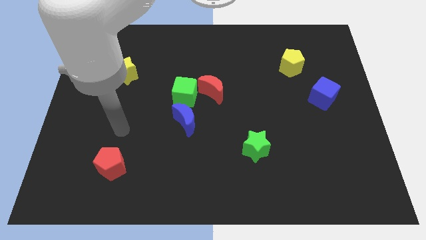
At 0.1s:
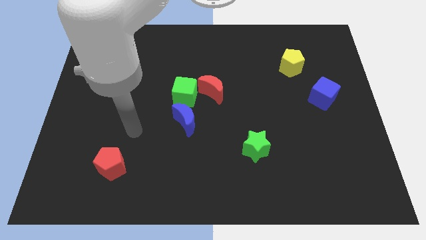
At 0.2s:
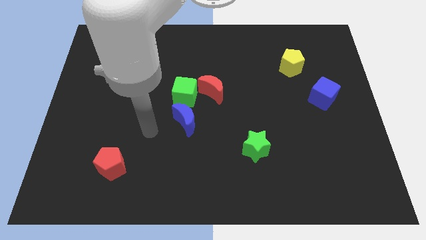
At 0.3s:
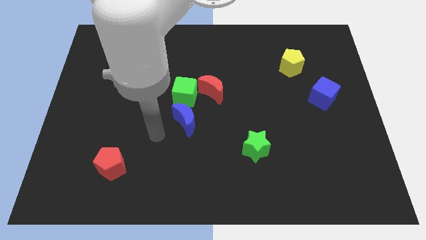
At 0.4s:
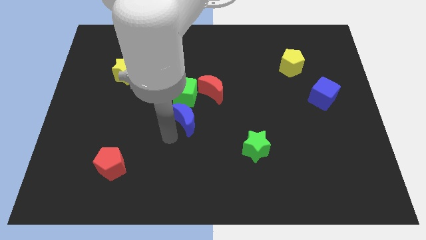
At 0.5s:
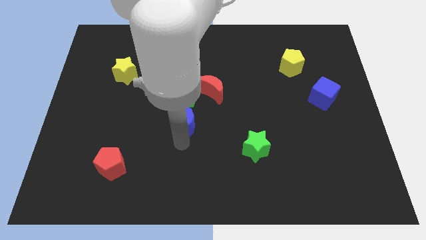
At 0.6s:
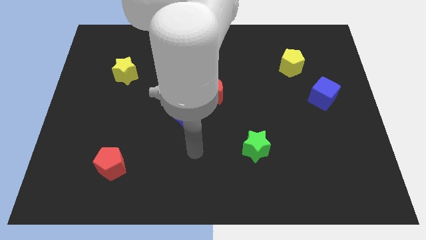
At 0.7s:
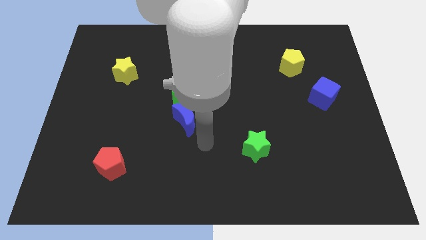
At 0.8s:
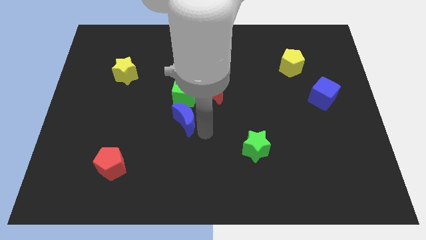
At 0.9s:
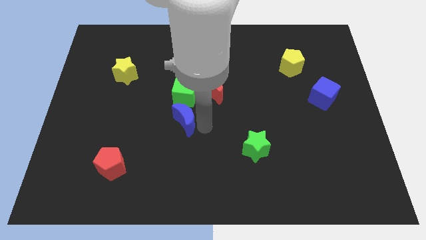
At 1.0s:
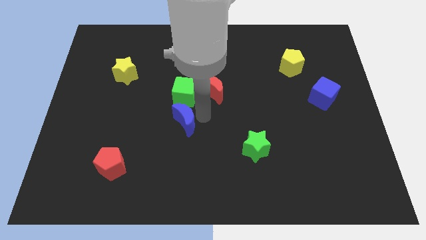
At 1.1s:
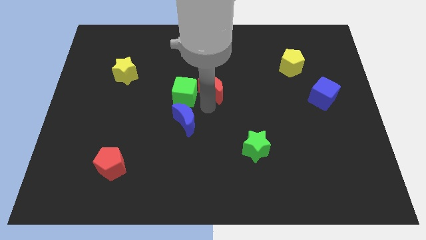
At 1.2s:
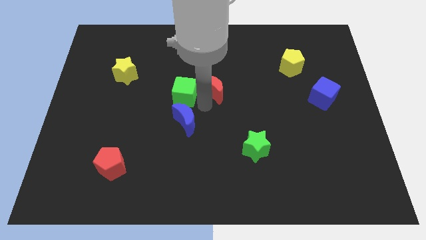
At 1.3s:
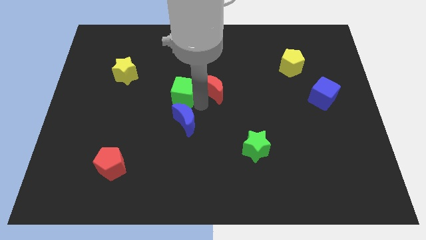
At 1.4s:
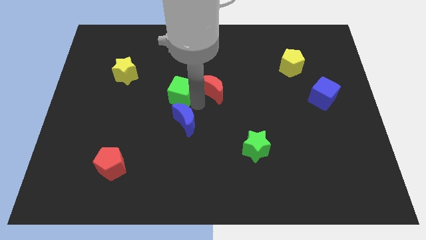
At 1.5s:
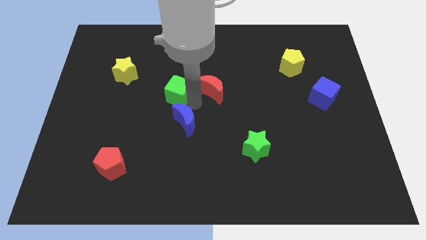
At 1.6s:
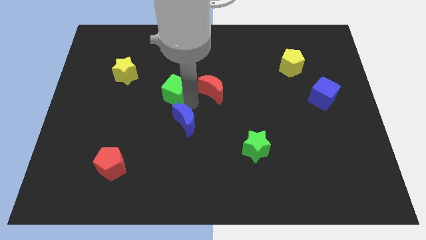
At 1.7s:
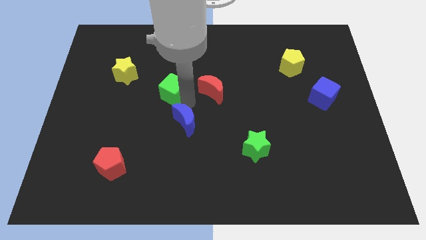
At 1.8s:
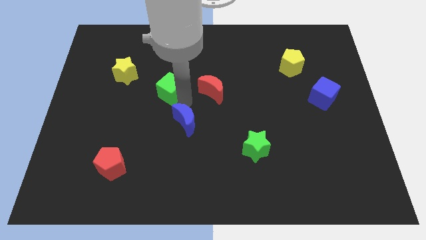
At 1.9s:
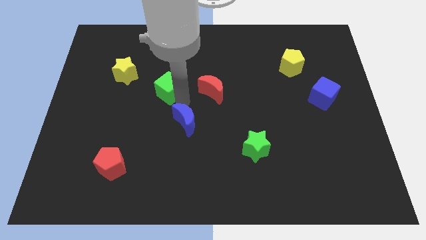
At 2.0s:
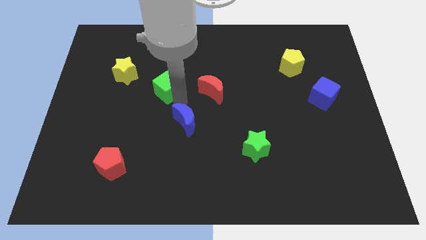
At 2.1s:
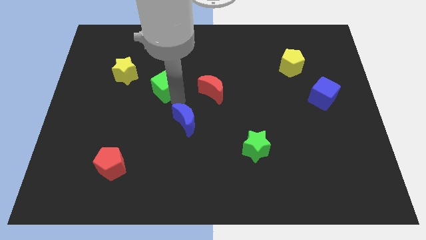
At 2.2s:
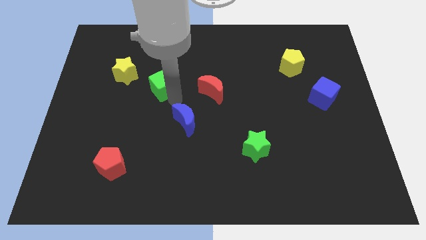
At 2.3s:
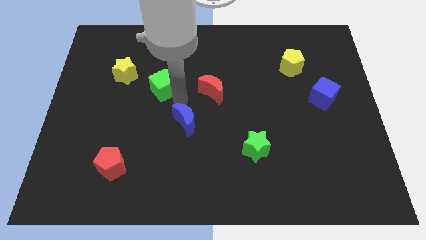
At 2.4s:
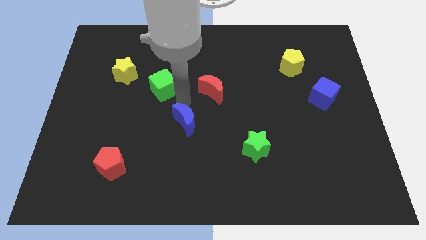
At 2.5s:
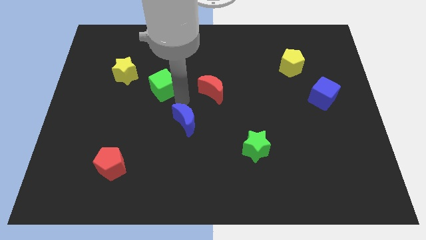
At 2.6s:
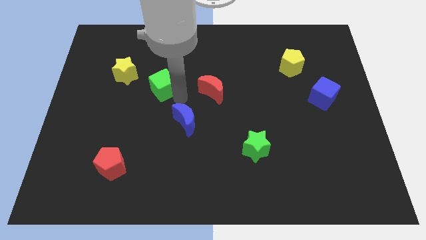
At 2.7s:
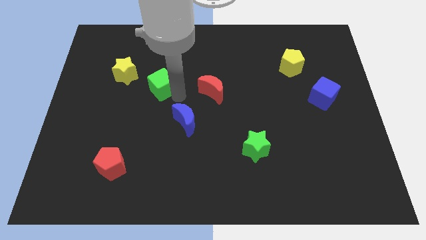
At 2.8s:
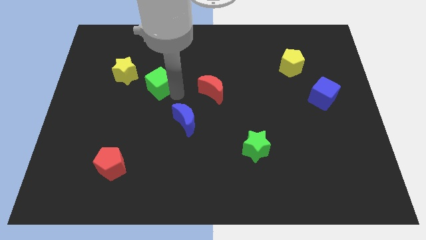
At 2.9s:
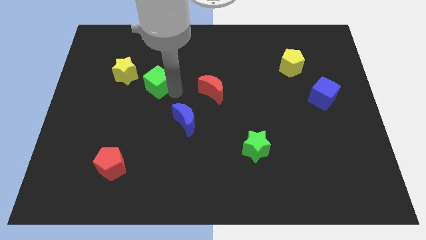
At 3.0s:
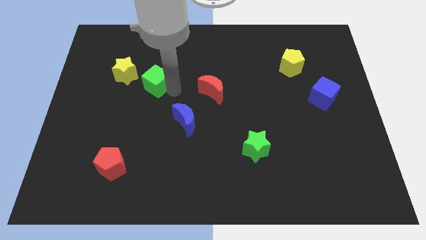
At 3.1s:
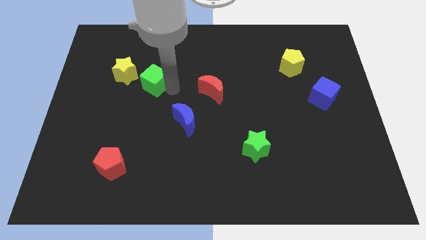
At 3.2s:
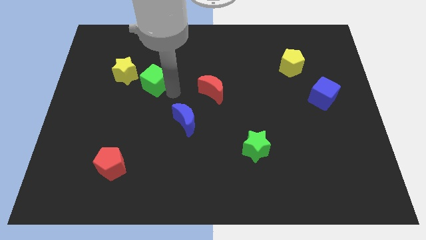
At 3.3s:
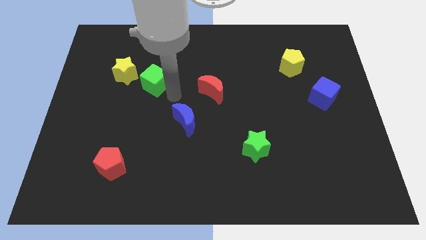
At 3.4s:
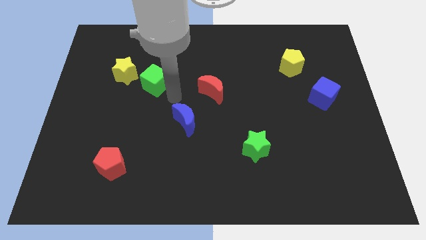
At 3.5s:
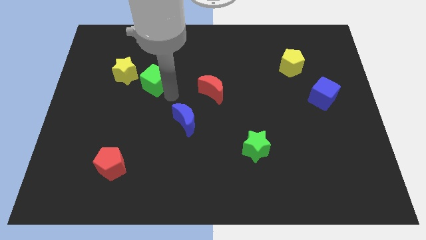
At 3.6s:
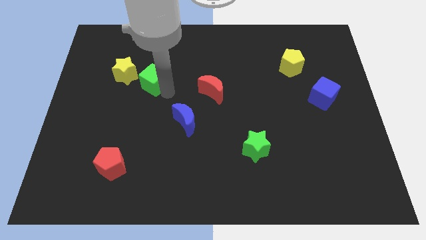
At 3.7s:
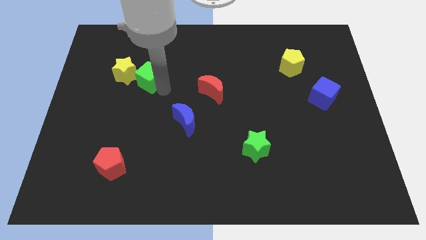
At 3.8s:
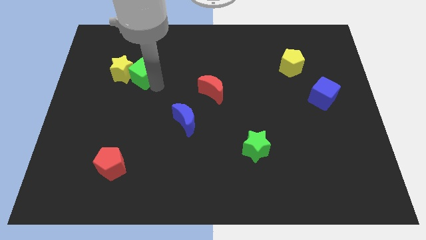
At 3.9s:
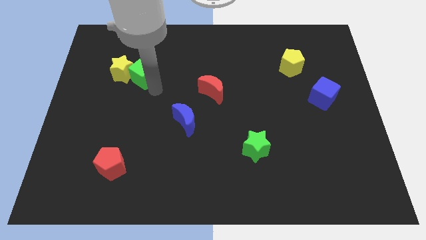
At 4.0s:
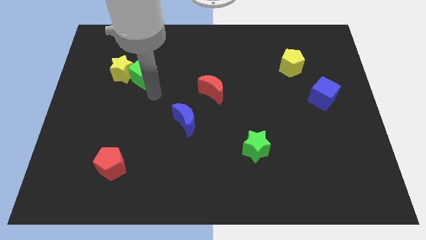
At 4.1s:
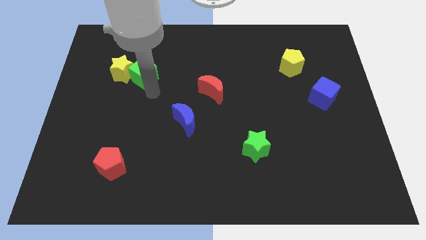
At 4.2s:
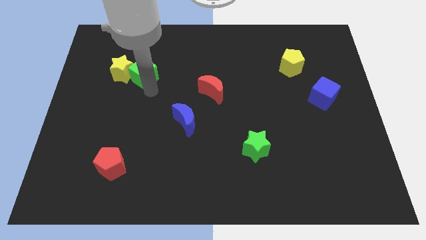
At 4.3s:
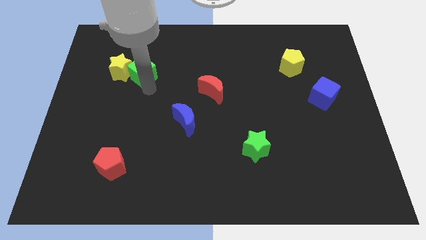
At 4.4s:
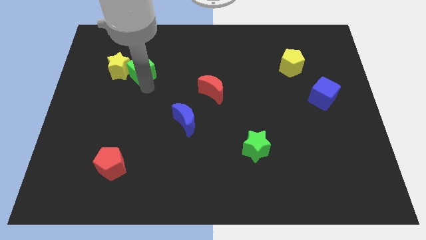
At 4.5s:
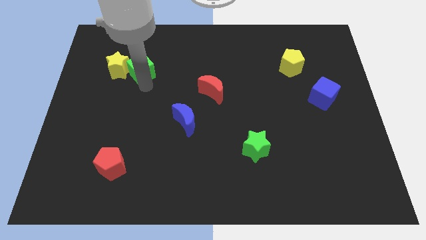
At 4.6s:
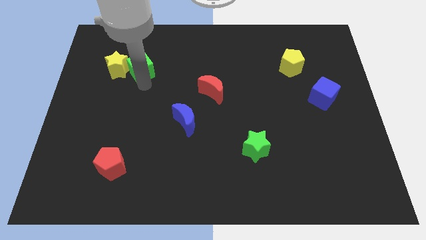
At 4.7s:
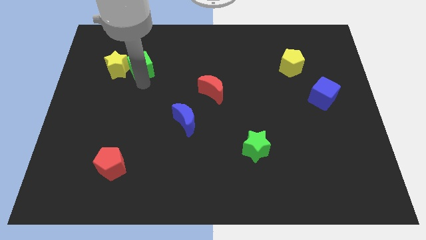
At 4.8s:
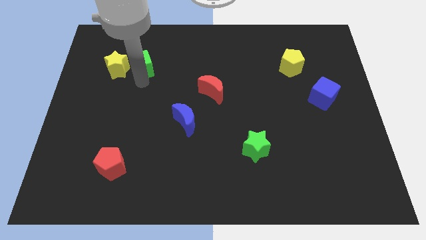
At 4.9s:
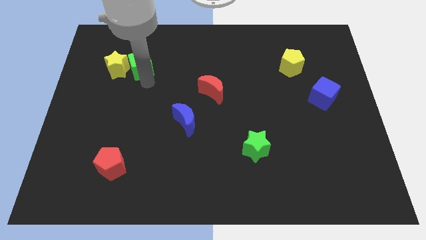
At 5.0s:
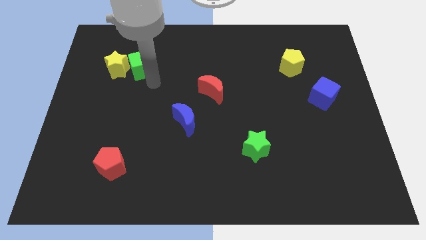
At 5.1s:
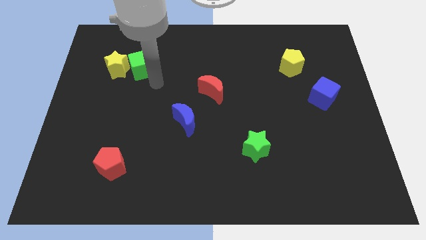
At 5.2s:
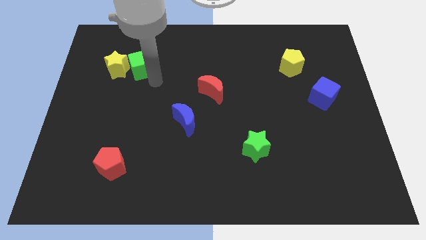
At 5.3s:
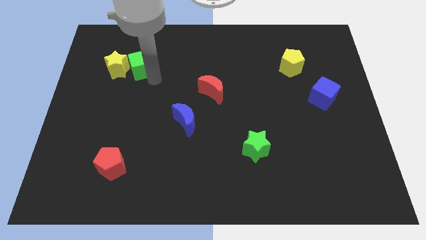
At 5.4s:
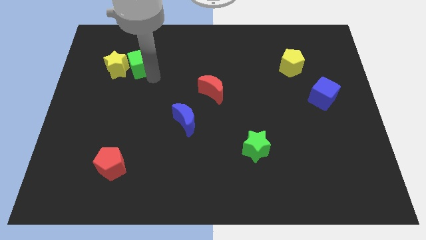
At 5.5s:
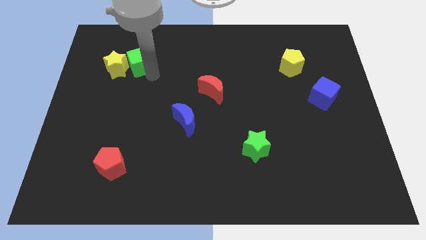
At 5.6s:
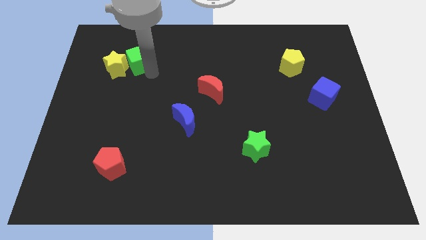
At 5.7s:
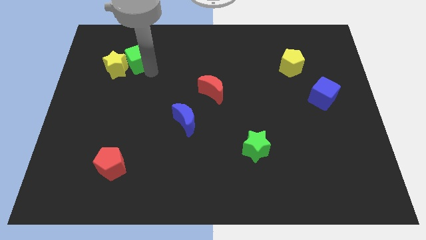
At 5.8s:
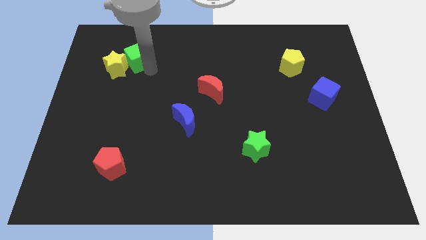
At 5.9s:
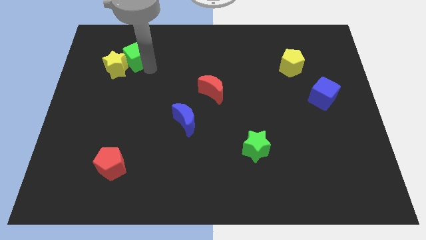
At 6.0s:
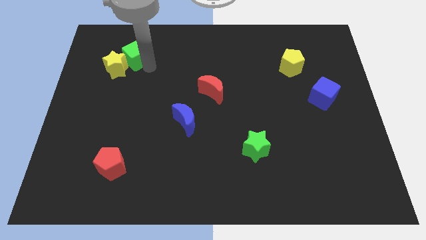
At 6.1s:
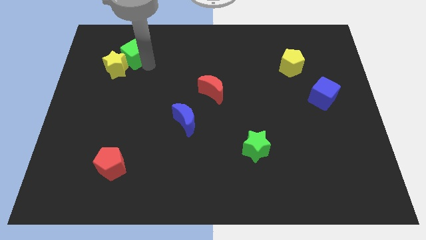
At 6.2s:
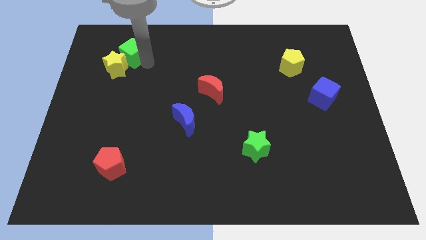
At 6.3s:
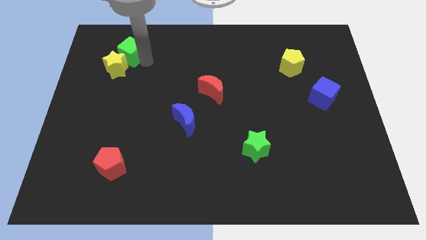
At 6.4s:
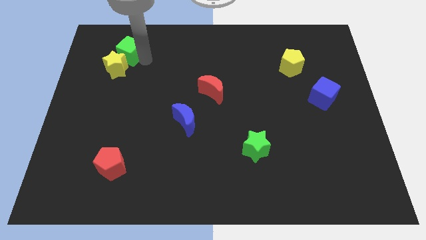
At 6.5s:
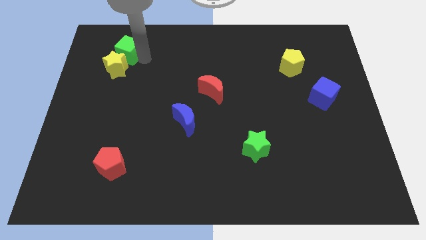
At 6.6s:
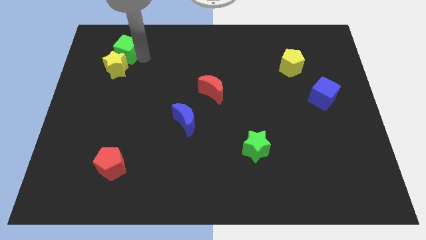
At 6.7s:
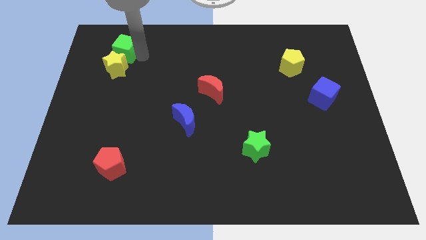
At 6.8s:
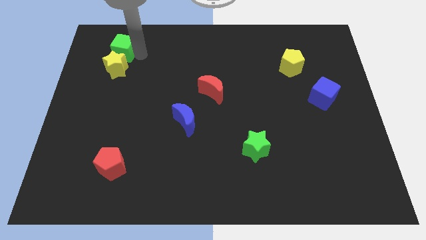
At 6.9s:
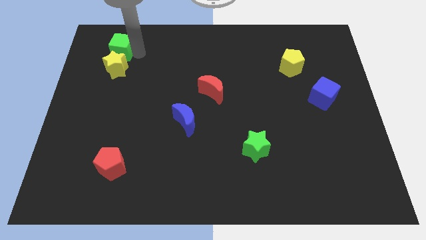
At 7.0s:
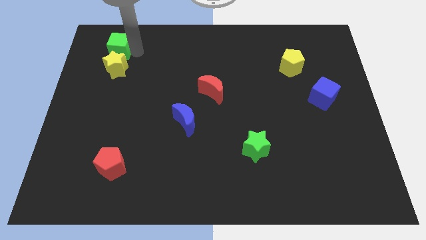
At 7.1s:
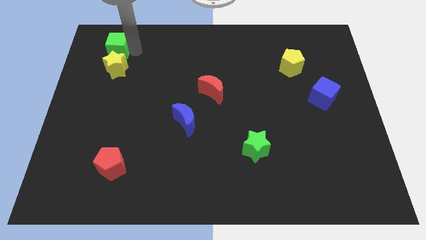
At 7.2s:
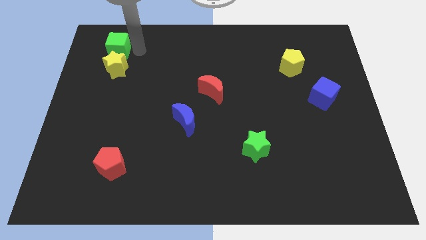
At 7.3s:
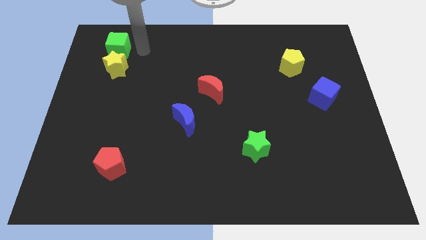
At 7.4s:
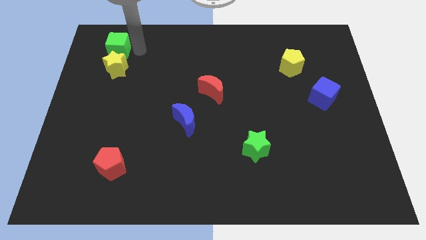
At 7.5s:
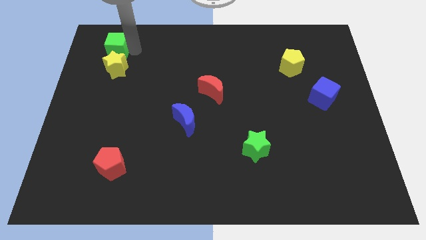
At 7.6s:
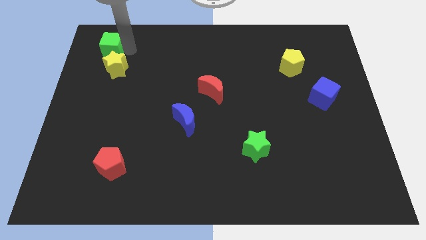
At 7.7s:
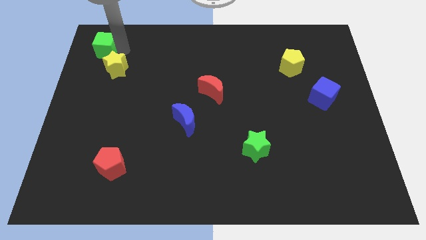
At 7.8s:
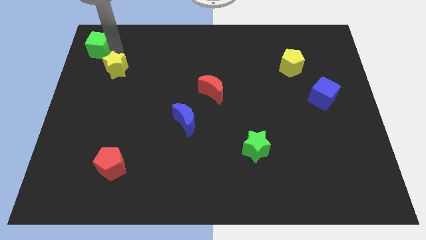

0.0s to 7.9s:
put the green cube to the top left of the board
